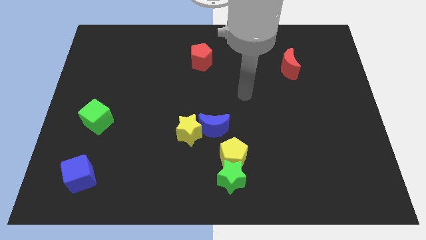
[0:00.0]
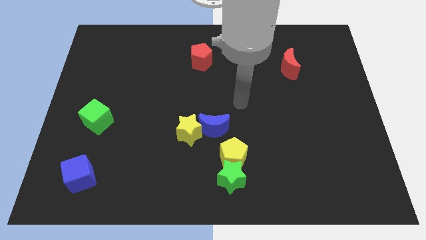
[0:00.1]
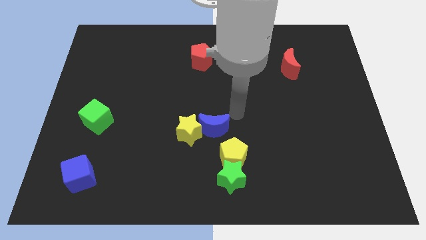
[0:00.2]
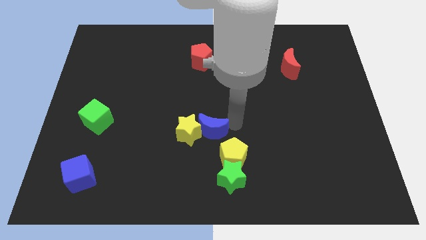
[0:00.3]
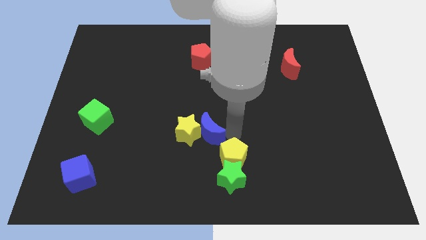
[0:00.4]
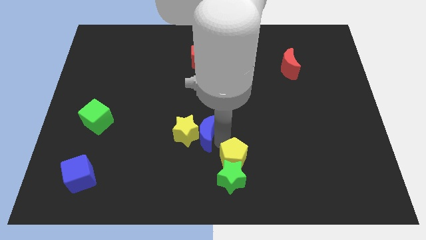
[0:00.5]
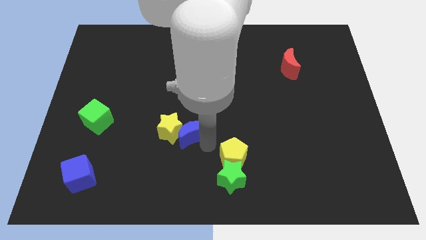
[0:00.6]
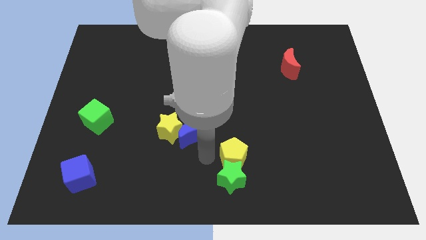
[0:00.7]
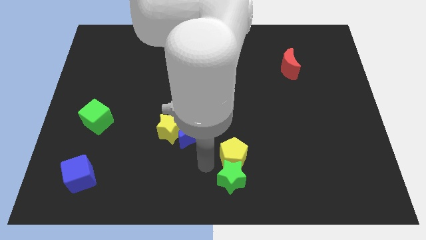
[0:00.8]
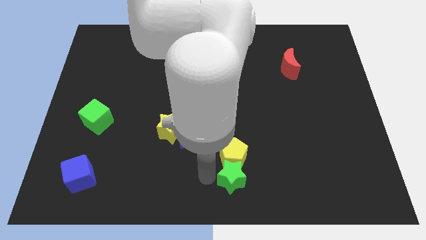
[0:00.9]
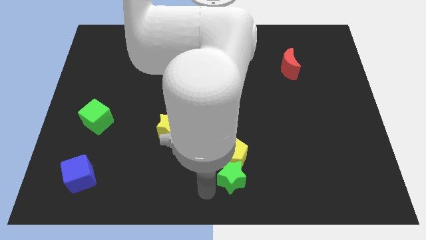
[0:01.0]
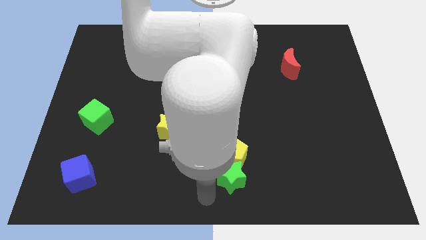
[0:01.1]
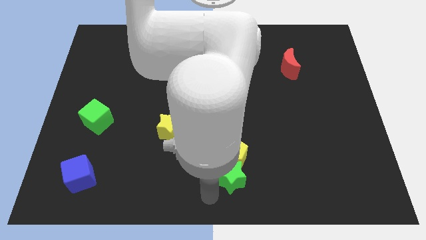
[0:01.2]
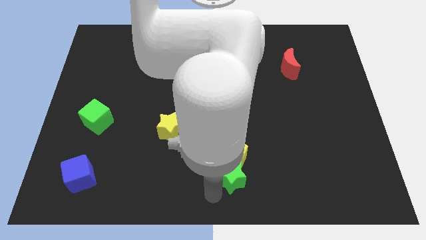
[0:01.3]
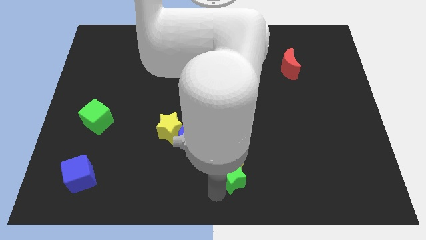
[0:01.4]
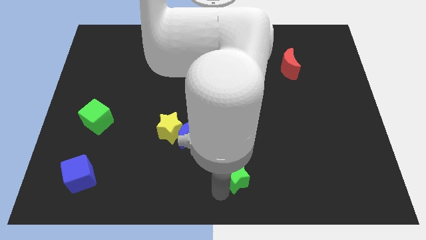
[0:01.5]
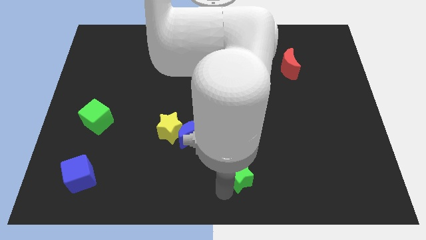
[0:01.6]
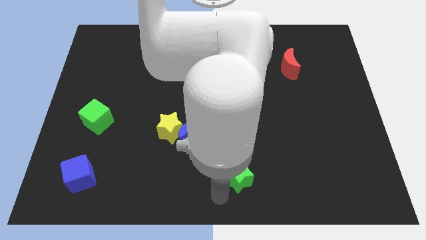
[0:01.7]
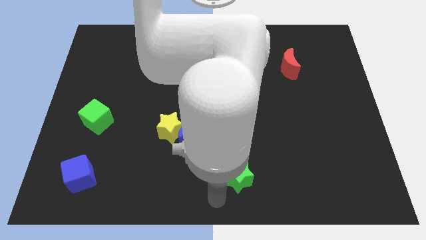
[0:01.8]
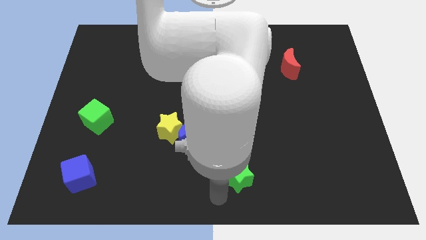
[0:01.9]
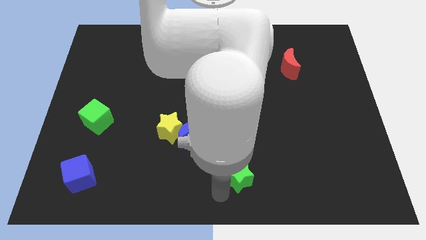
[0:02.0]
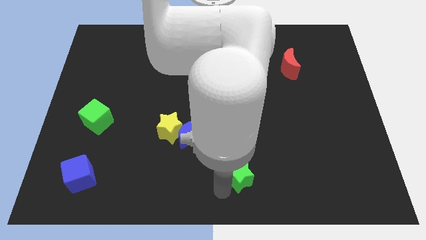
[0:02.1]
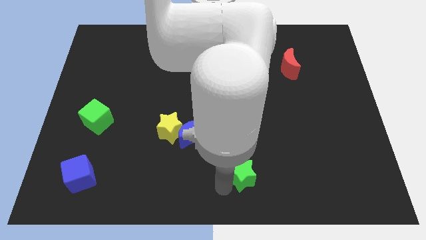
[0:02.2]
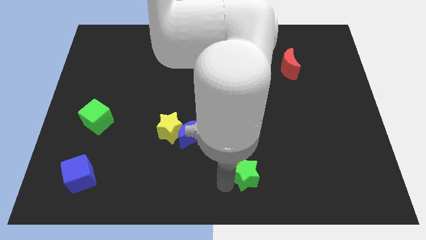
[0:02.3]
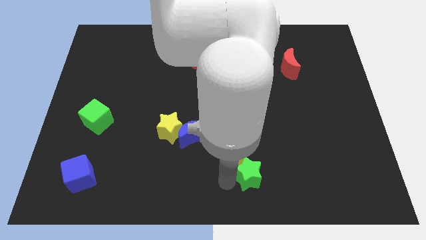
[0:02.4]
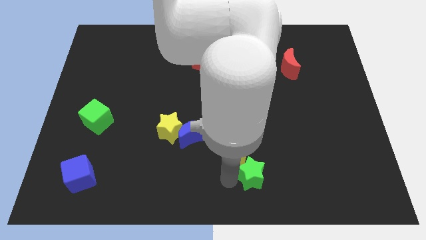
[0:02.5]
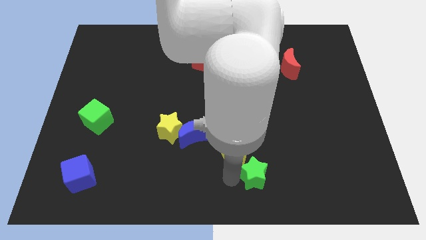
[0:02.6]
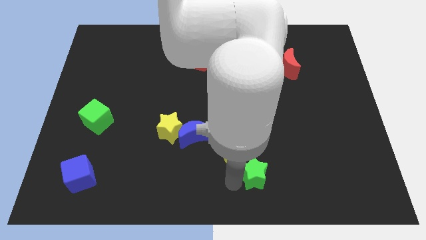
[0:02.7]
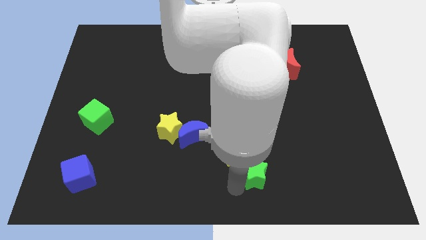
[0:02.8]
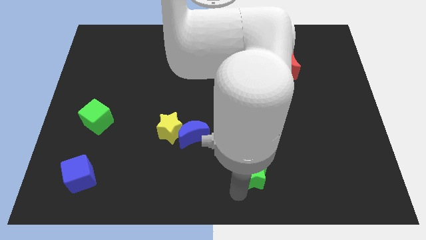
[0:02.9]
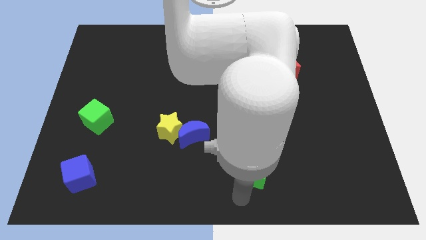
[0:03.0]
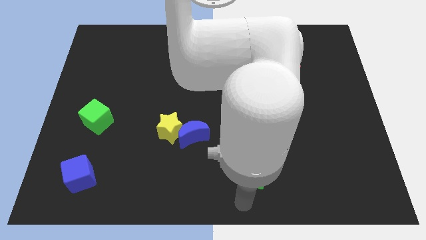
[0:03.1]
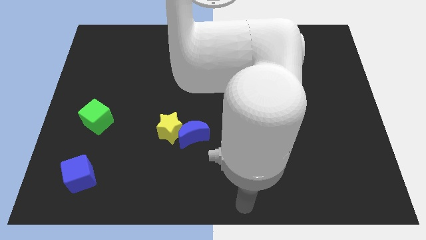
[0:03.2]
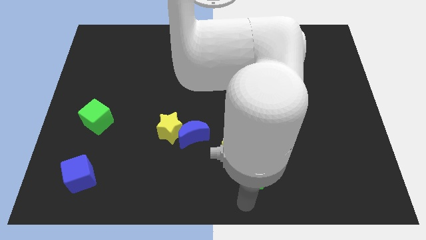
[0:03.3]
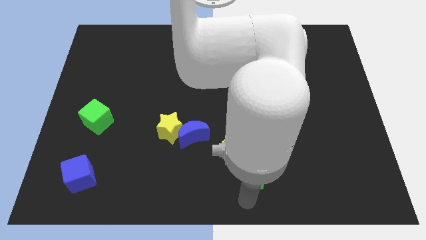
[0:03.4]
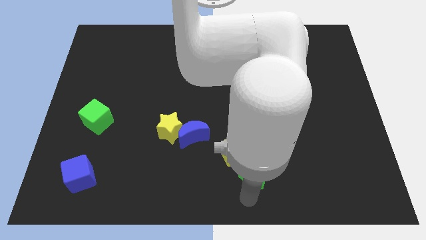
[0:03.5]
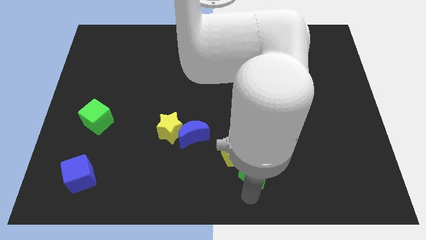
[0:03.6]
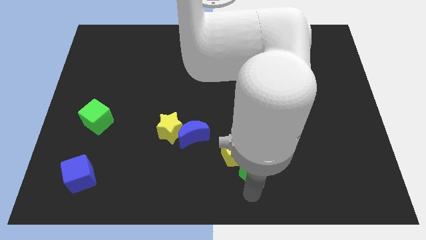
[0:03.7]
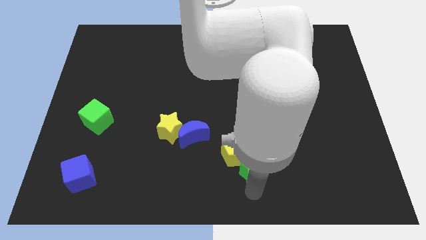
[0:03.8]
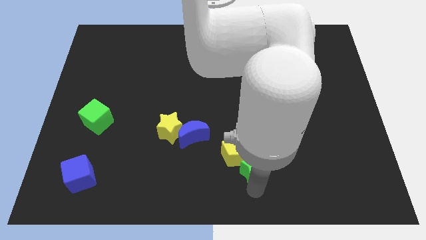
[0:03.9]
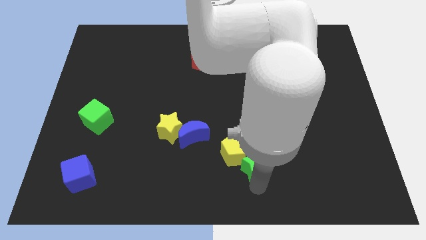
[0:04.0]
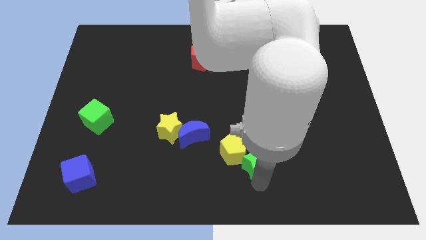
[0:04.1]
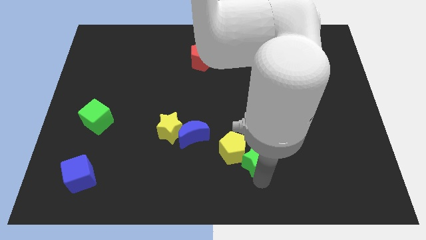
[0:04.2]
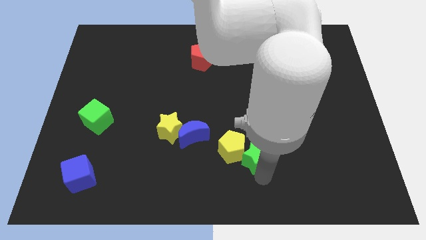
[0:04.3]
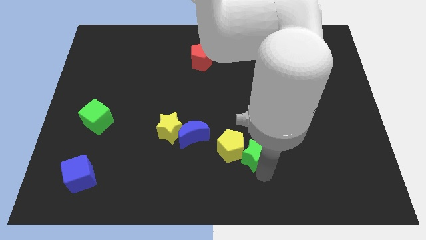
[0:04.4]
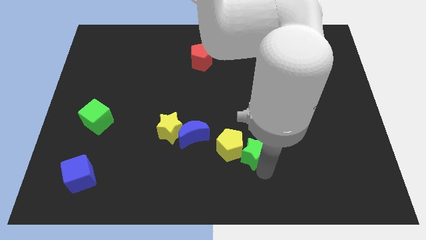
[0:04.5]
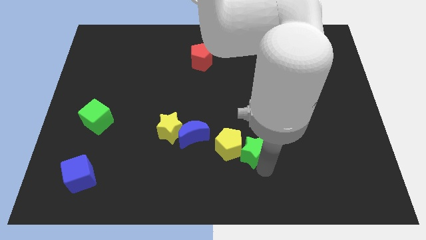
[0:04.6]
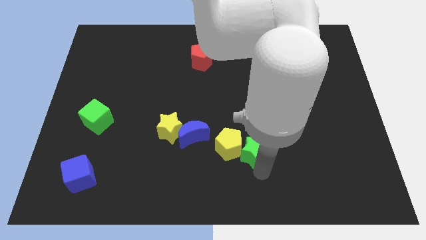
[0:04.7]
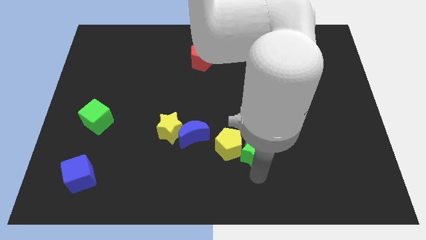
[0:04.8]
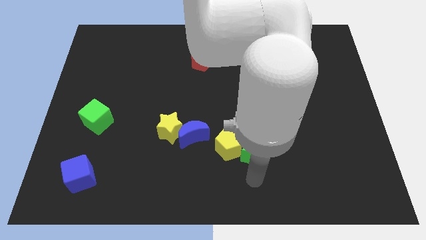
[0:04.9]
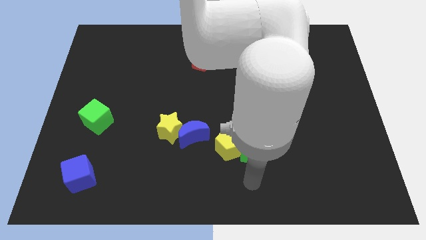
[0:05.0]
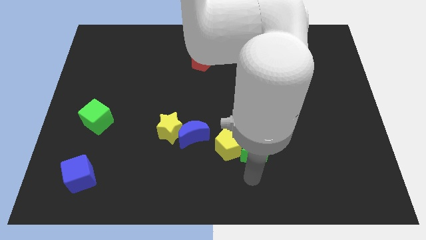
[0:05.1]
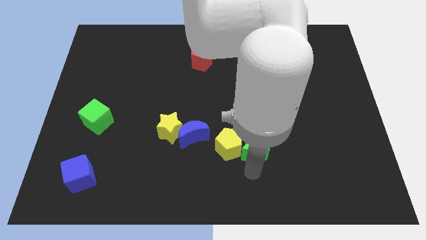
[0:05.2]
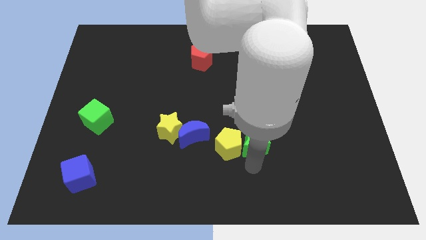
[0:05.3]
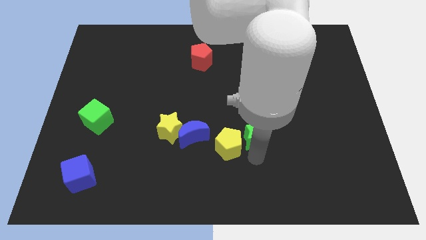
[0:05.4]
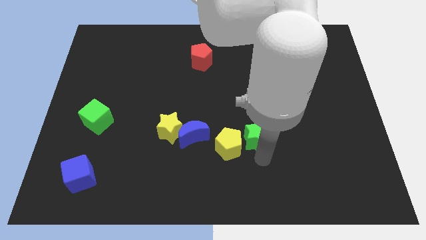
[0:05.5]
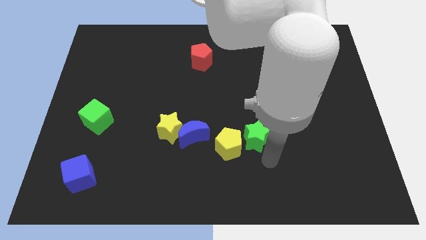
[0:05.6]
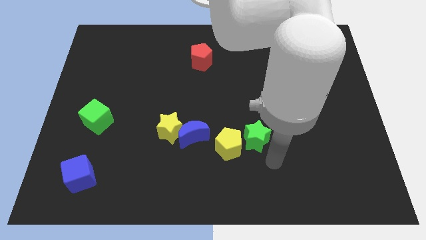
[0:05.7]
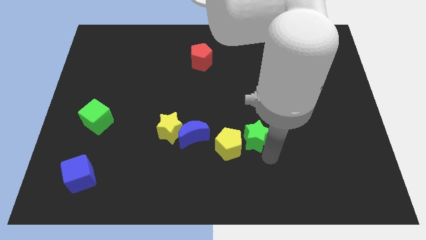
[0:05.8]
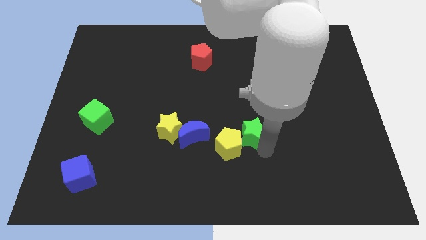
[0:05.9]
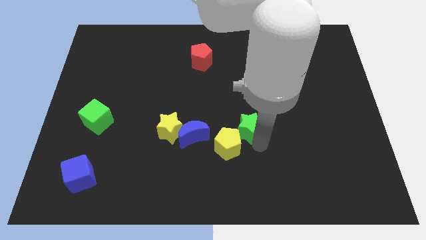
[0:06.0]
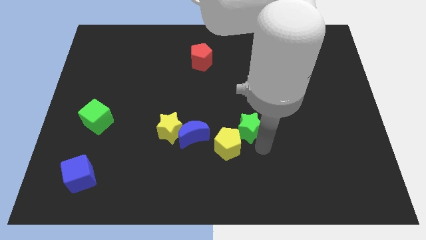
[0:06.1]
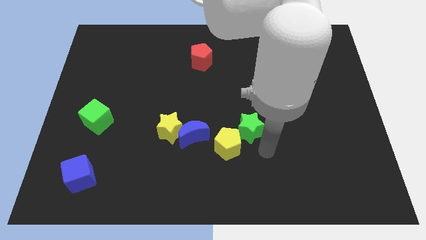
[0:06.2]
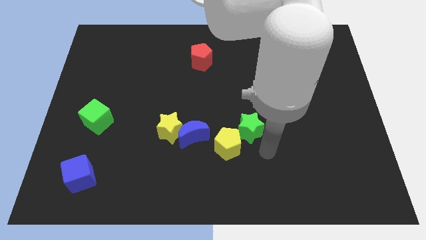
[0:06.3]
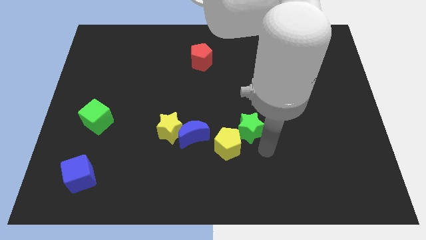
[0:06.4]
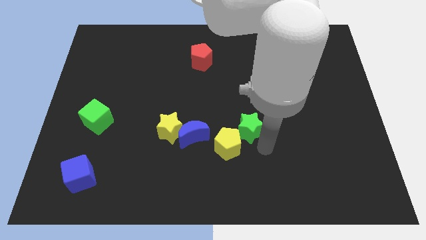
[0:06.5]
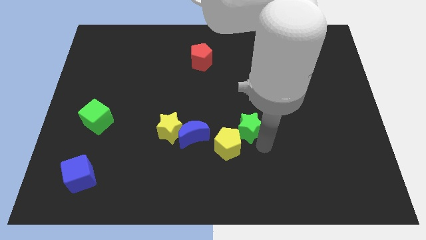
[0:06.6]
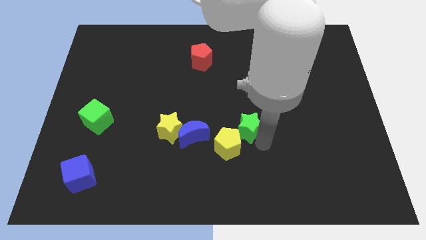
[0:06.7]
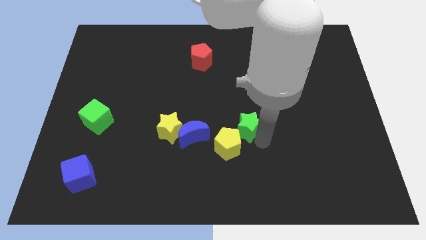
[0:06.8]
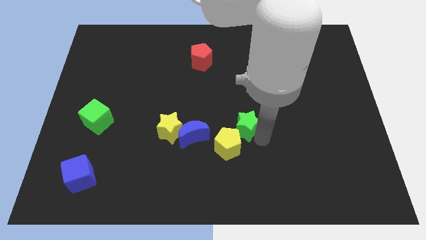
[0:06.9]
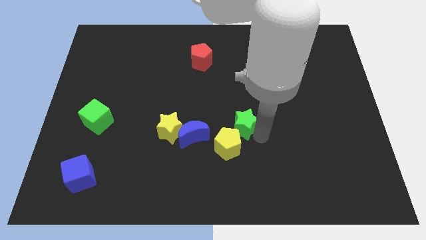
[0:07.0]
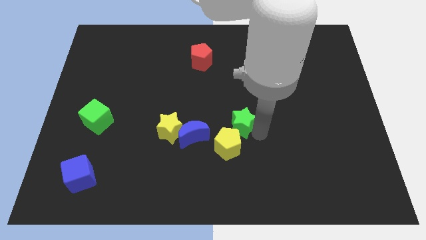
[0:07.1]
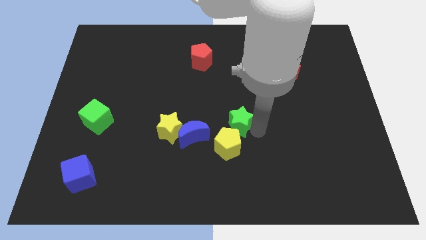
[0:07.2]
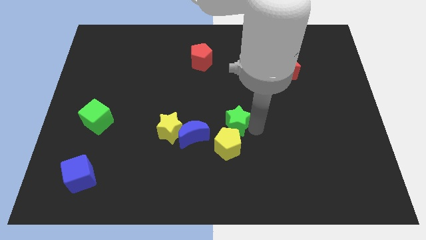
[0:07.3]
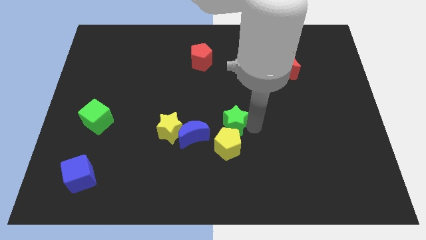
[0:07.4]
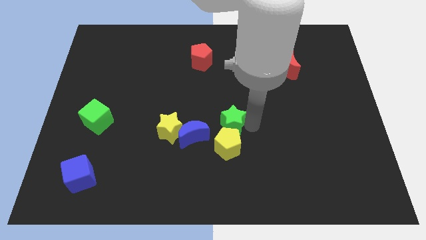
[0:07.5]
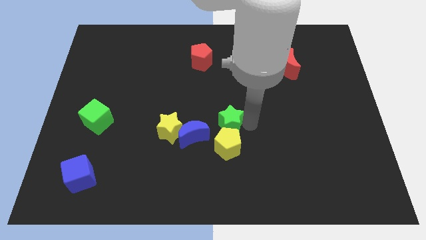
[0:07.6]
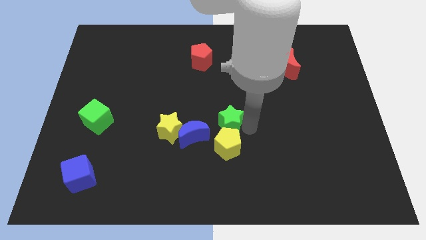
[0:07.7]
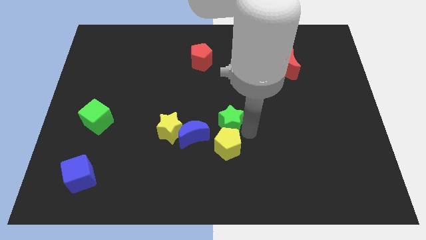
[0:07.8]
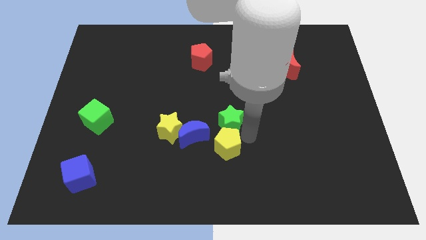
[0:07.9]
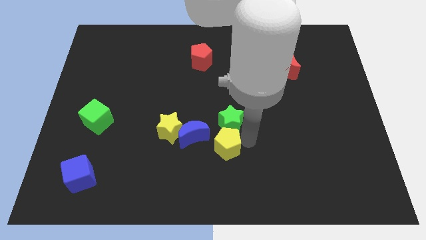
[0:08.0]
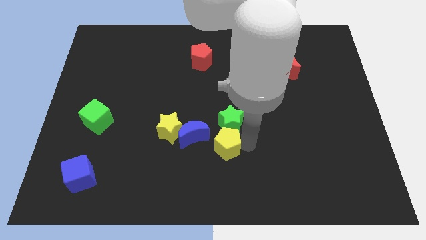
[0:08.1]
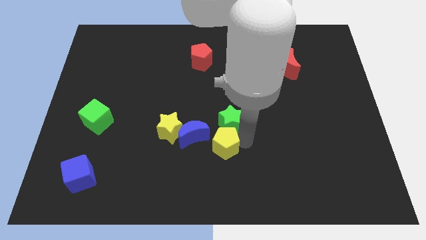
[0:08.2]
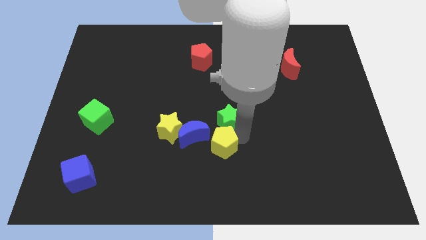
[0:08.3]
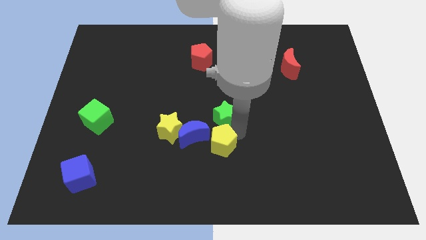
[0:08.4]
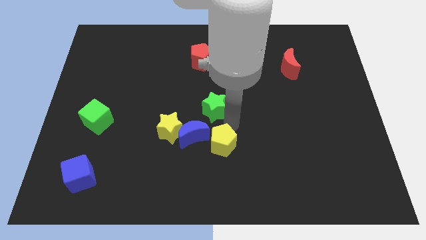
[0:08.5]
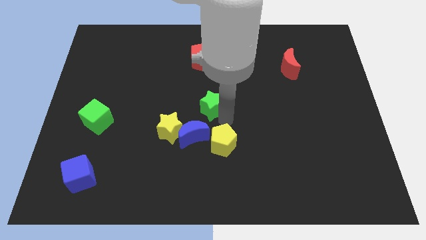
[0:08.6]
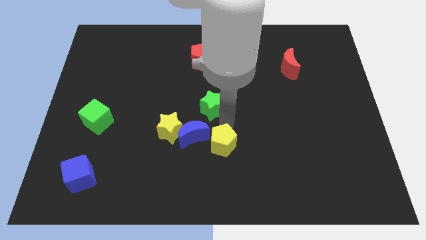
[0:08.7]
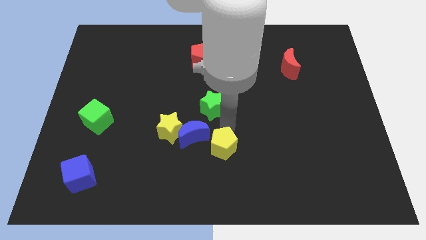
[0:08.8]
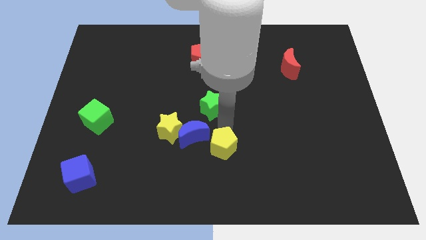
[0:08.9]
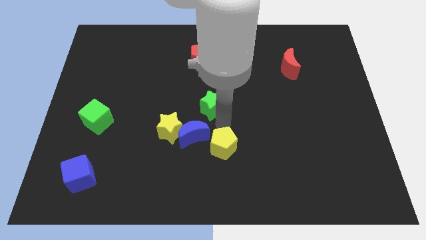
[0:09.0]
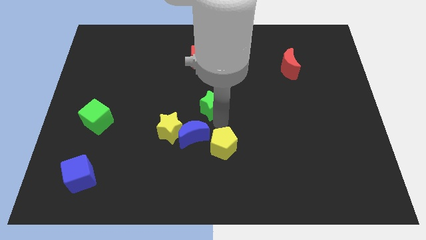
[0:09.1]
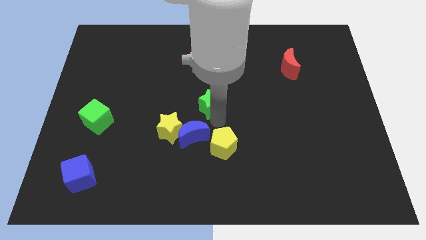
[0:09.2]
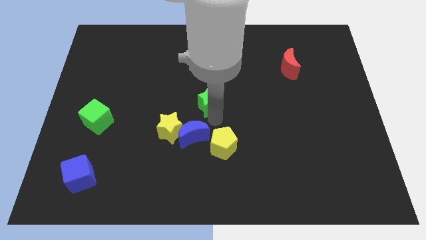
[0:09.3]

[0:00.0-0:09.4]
move the green star below the red pentagon
